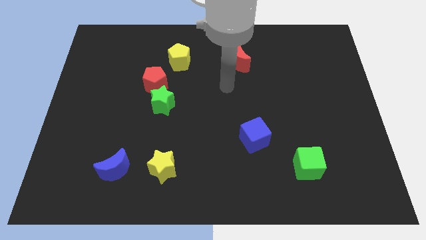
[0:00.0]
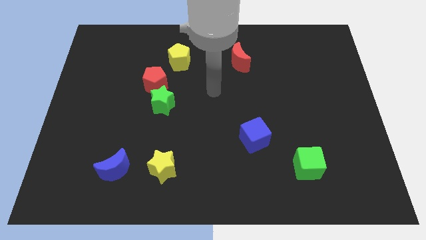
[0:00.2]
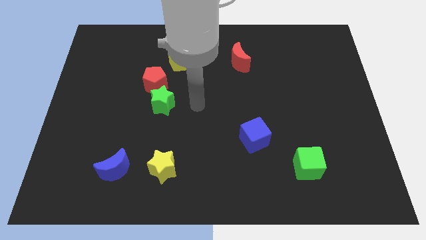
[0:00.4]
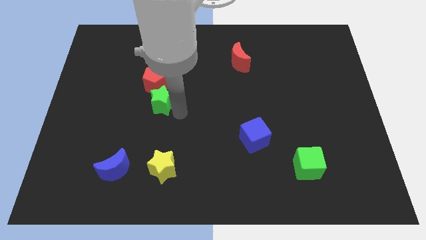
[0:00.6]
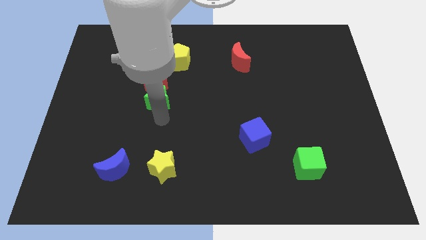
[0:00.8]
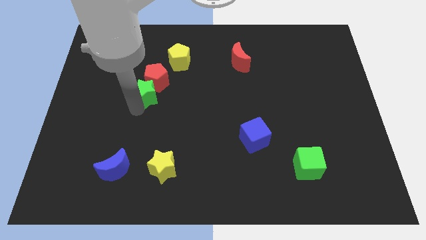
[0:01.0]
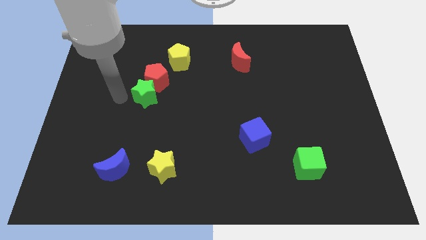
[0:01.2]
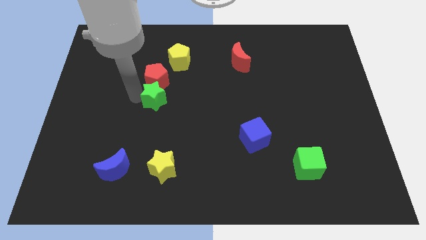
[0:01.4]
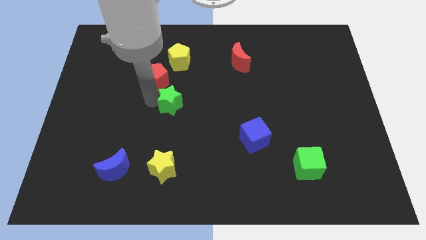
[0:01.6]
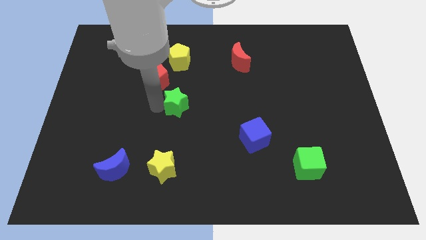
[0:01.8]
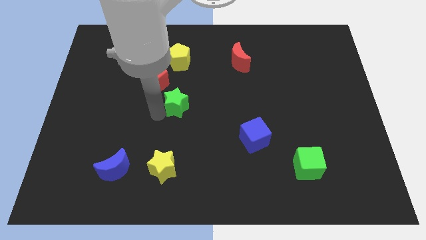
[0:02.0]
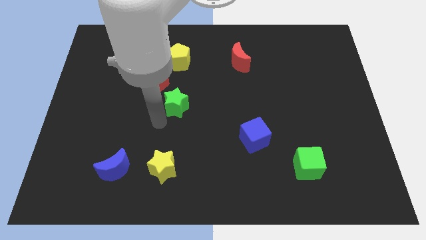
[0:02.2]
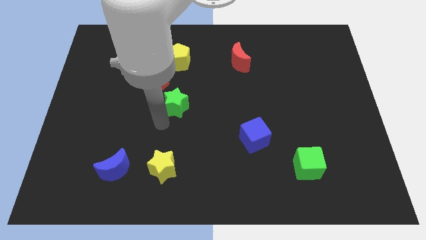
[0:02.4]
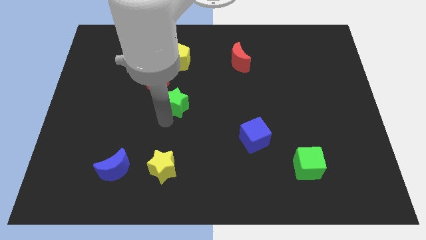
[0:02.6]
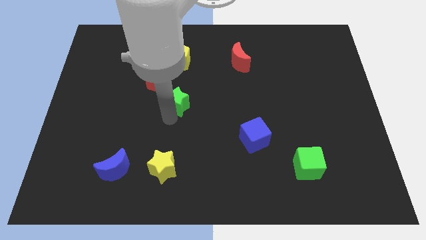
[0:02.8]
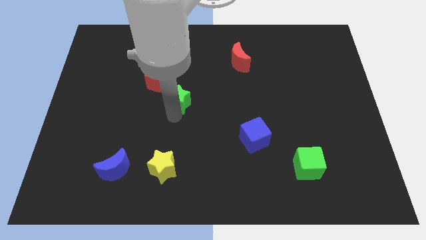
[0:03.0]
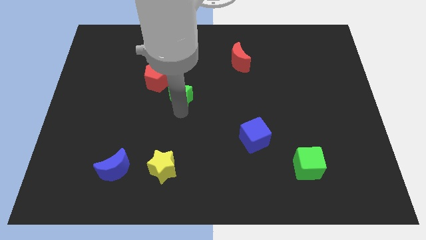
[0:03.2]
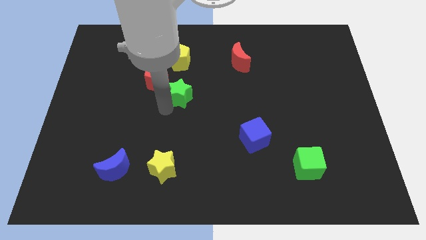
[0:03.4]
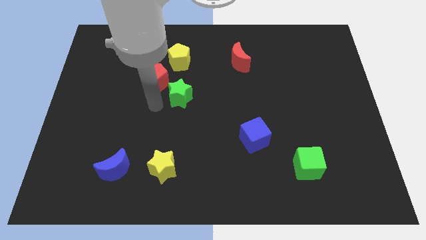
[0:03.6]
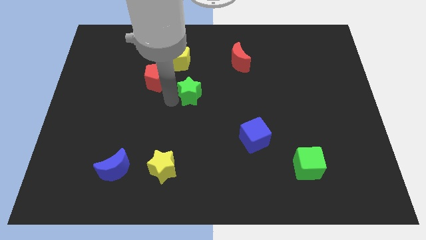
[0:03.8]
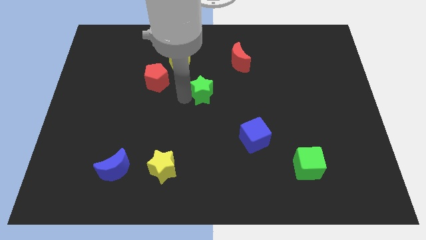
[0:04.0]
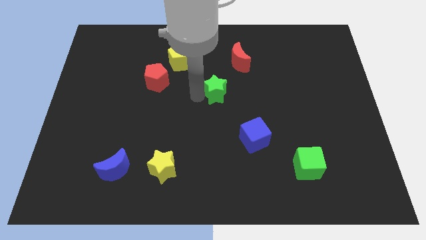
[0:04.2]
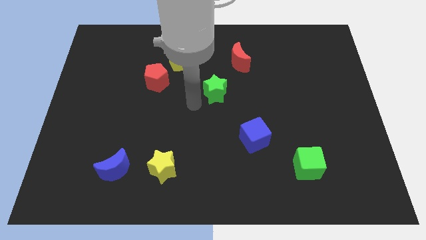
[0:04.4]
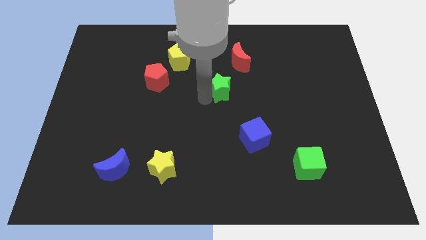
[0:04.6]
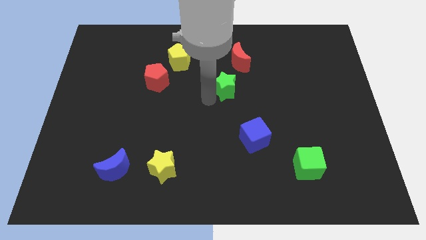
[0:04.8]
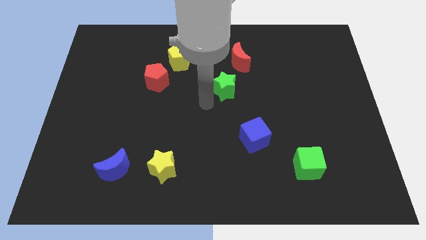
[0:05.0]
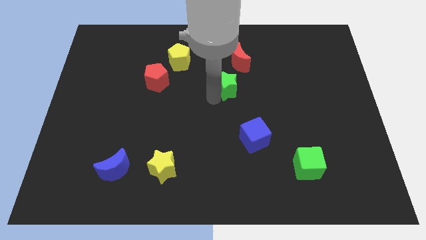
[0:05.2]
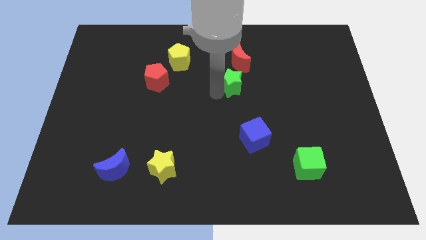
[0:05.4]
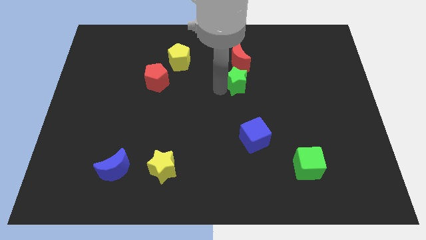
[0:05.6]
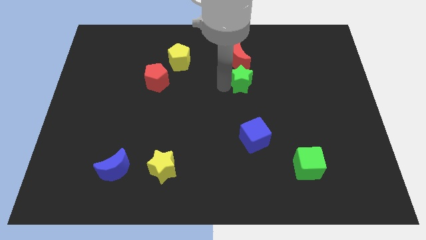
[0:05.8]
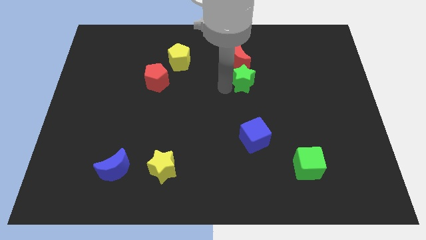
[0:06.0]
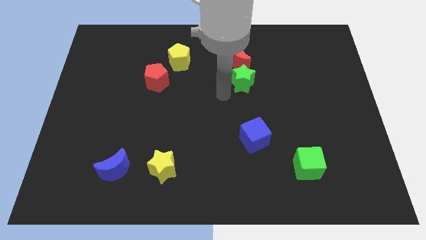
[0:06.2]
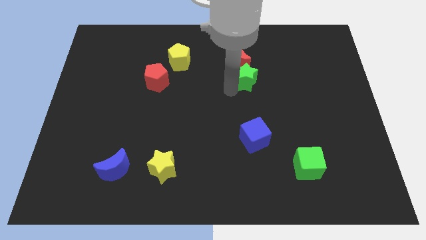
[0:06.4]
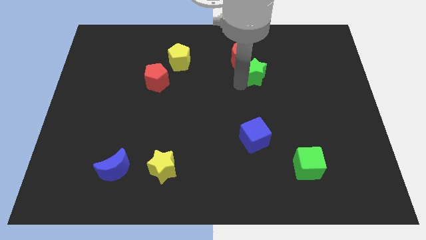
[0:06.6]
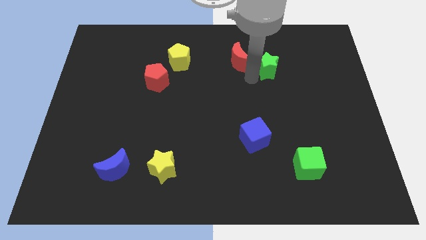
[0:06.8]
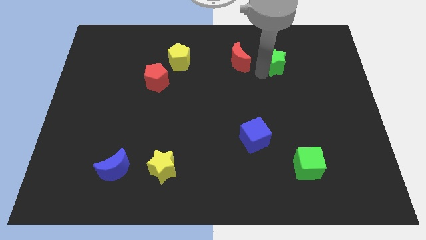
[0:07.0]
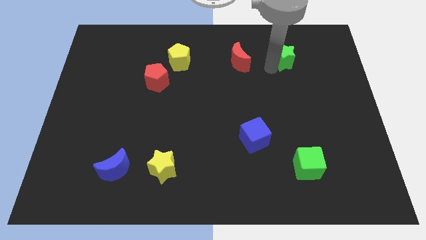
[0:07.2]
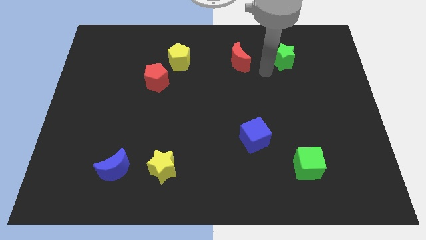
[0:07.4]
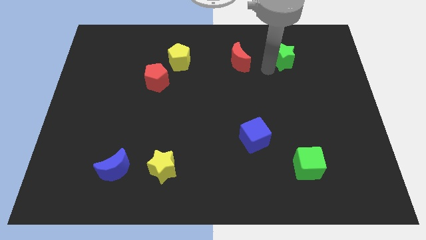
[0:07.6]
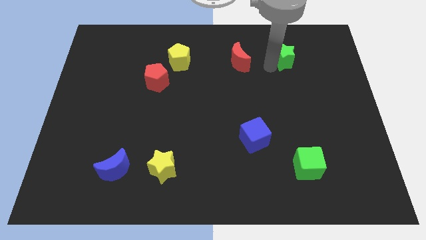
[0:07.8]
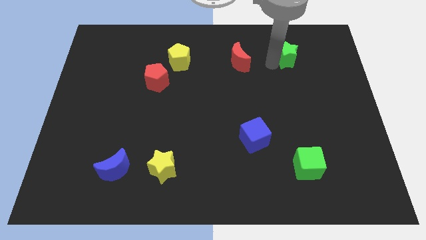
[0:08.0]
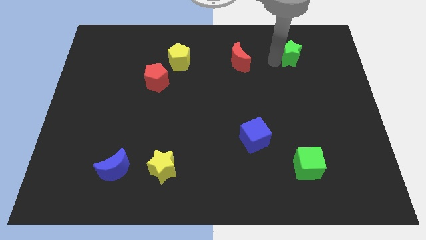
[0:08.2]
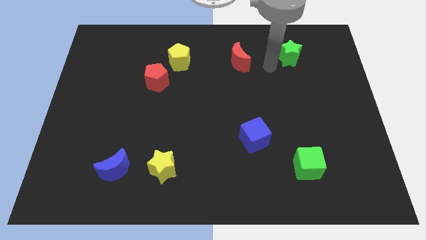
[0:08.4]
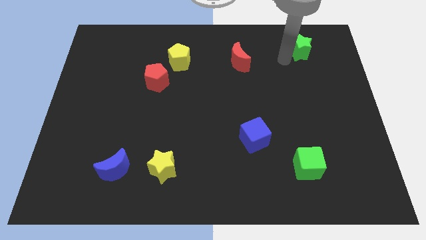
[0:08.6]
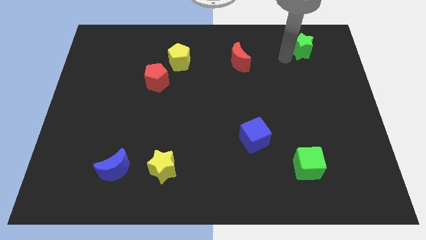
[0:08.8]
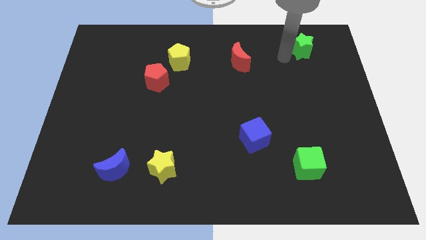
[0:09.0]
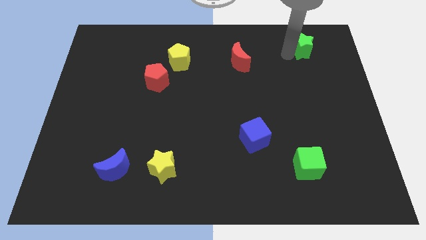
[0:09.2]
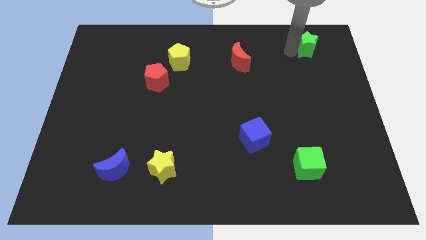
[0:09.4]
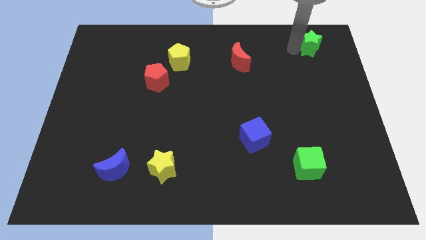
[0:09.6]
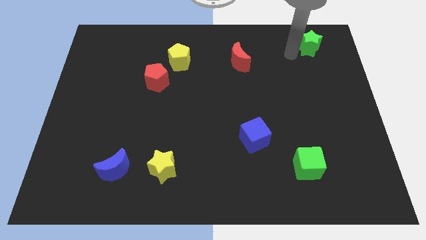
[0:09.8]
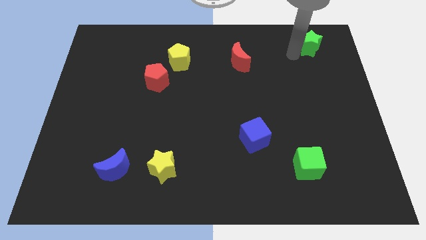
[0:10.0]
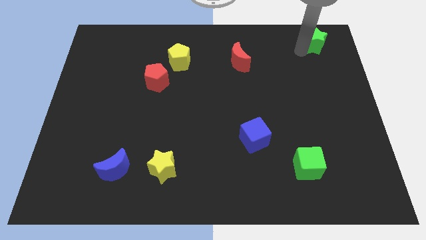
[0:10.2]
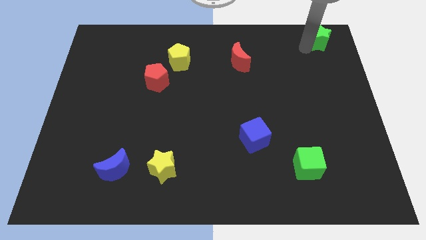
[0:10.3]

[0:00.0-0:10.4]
push the green star to the top right corner
